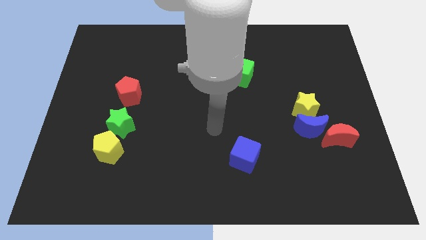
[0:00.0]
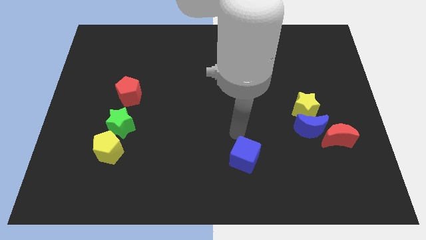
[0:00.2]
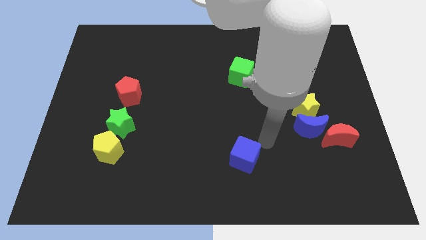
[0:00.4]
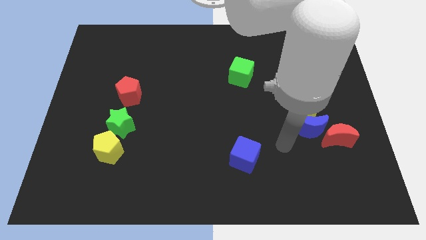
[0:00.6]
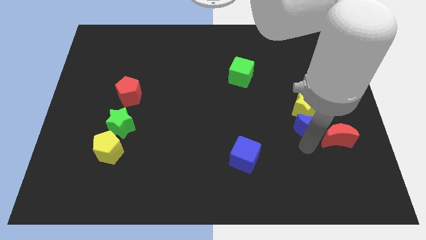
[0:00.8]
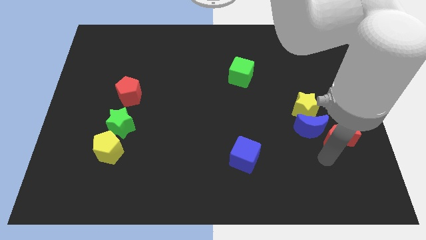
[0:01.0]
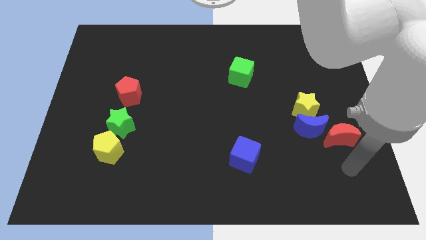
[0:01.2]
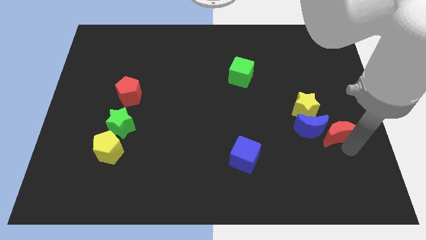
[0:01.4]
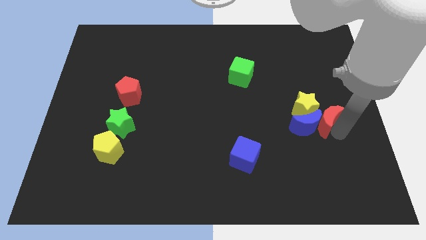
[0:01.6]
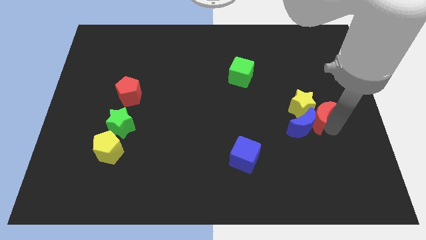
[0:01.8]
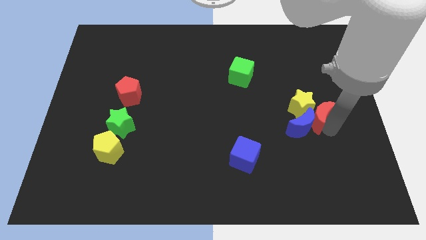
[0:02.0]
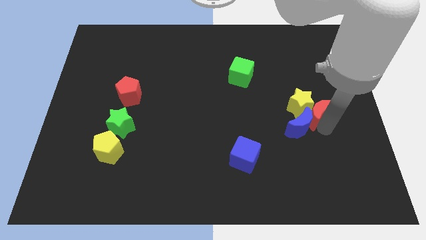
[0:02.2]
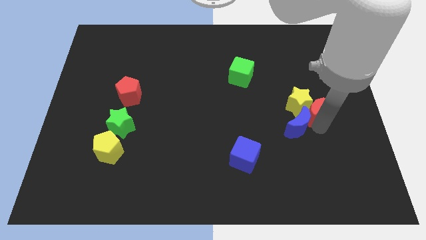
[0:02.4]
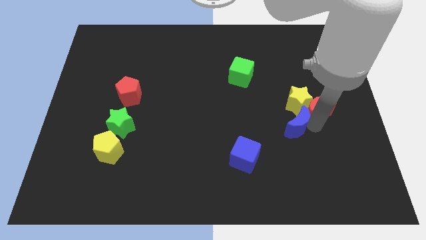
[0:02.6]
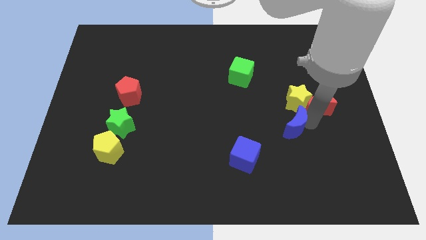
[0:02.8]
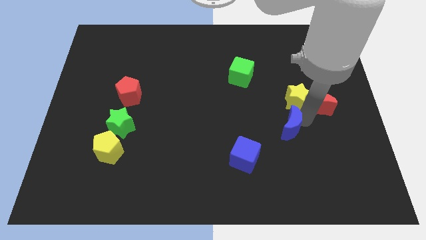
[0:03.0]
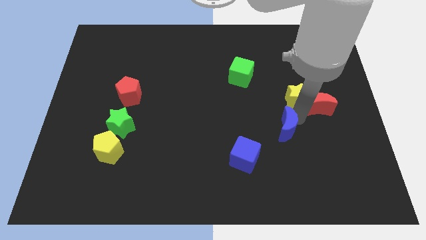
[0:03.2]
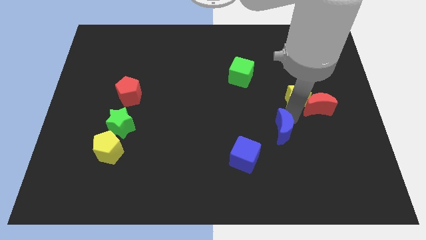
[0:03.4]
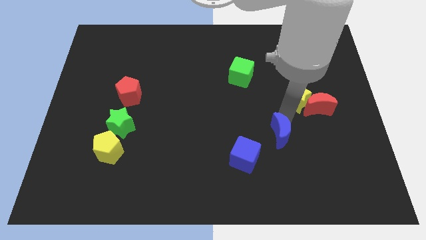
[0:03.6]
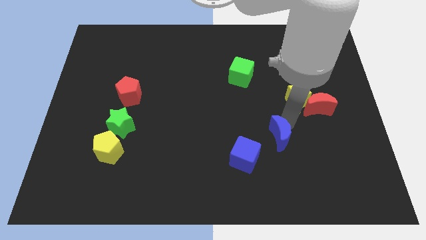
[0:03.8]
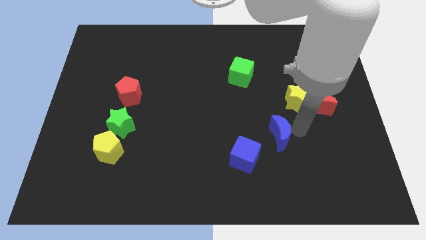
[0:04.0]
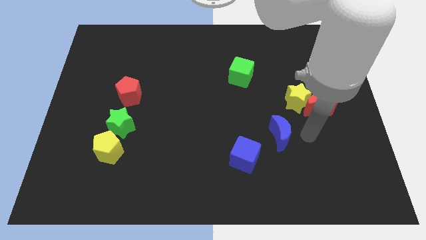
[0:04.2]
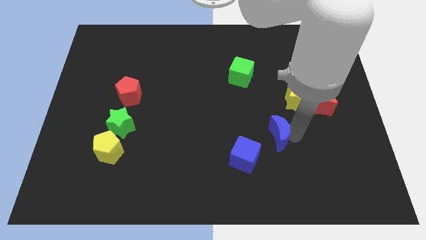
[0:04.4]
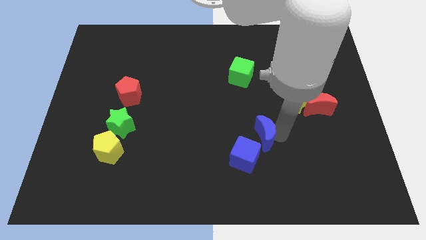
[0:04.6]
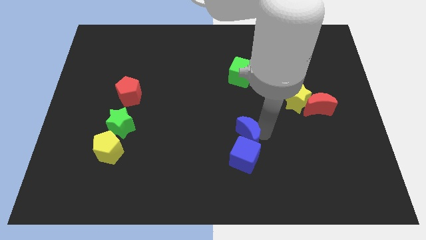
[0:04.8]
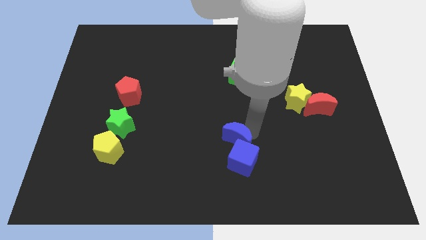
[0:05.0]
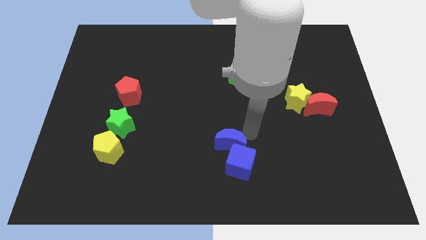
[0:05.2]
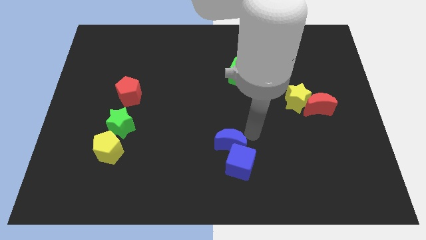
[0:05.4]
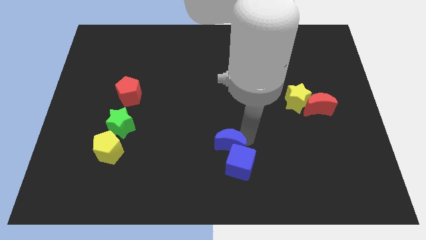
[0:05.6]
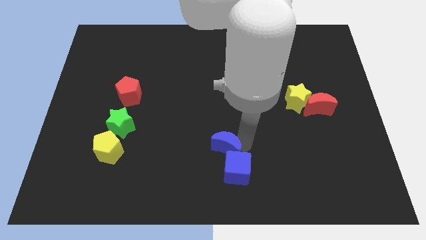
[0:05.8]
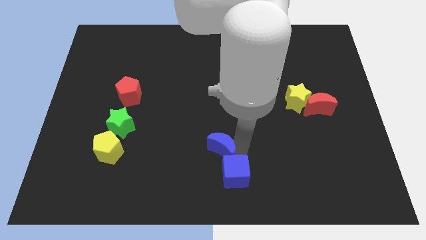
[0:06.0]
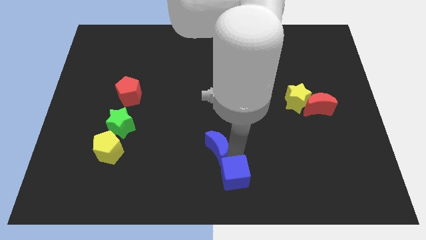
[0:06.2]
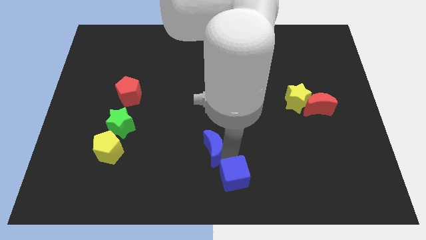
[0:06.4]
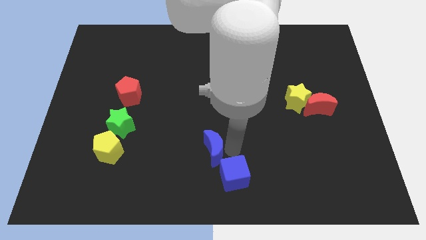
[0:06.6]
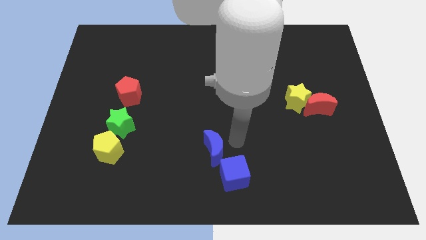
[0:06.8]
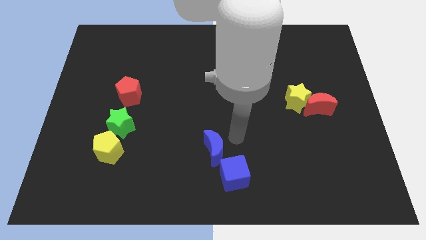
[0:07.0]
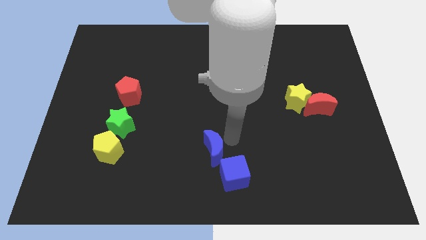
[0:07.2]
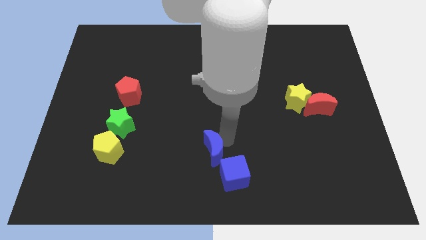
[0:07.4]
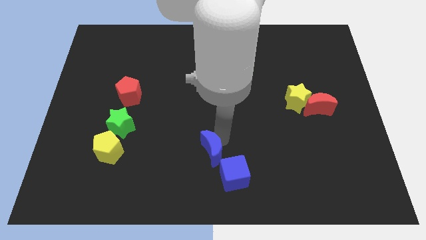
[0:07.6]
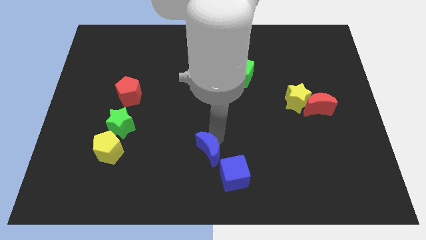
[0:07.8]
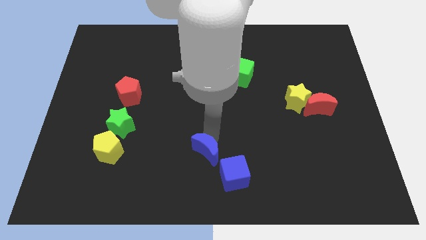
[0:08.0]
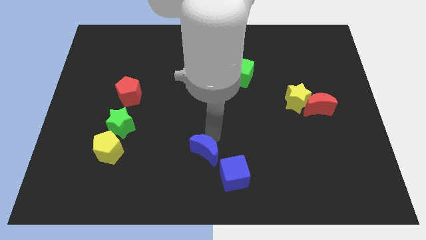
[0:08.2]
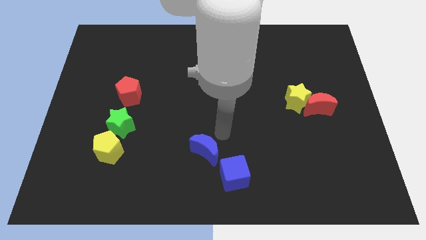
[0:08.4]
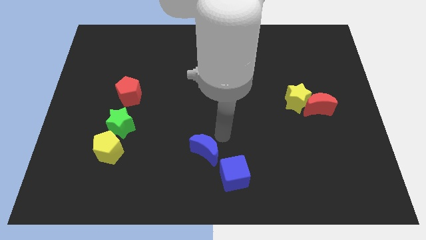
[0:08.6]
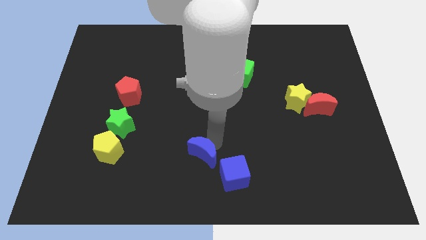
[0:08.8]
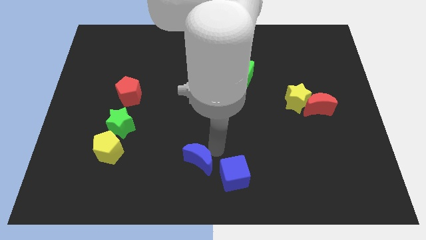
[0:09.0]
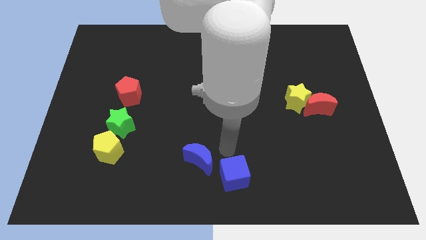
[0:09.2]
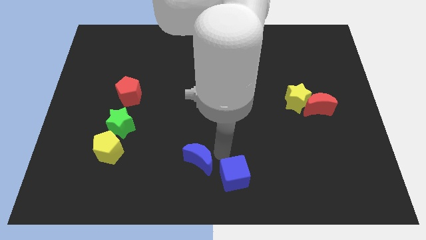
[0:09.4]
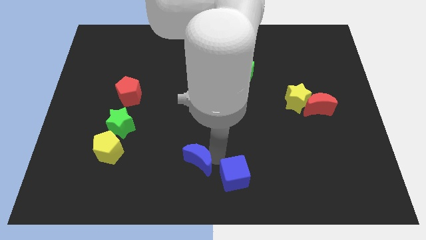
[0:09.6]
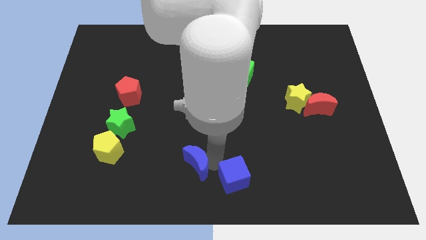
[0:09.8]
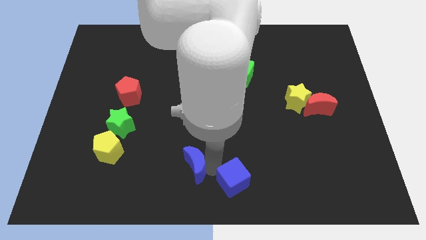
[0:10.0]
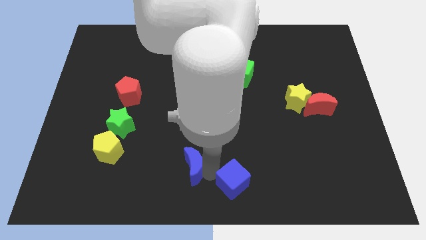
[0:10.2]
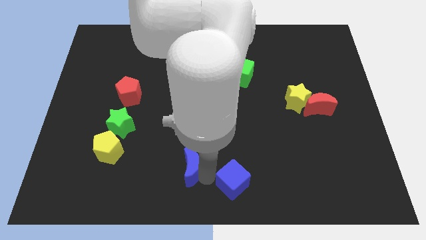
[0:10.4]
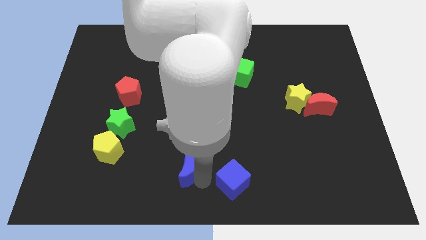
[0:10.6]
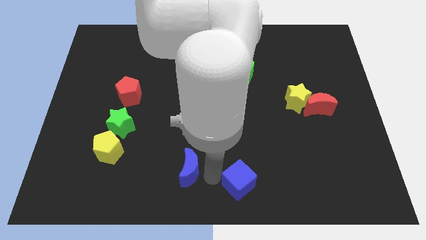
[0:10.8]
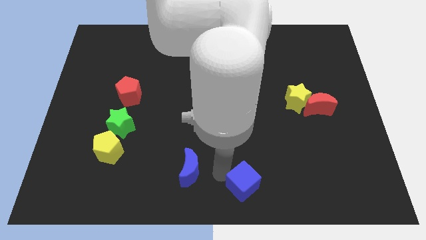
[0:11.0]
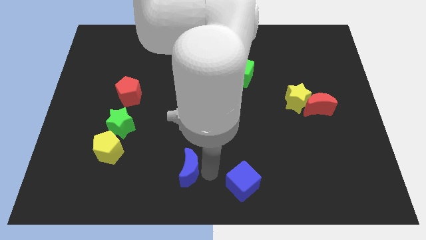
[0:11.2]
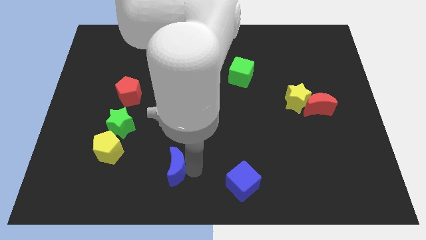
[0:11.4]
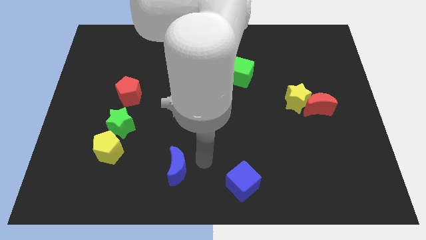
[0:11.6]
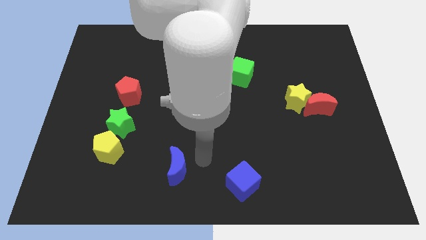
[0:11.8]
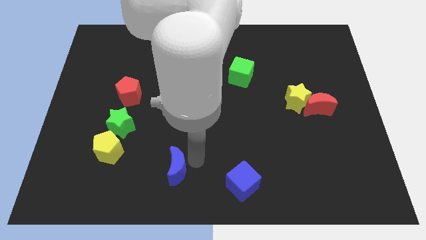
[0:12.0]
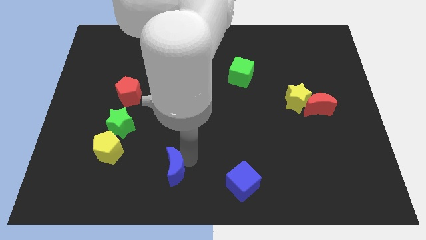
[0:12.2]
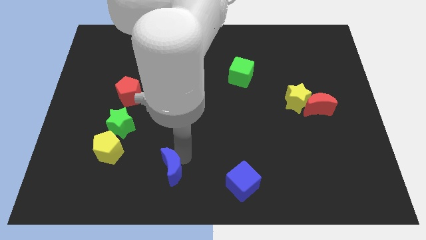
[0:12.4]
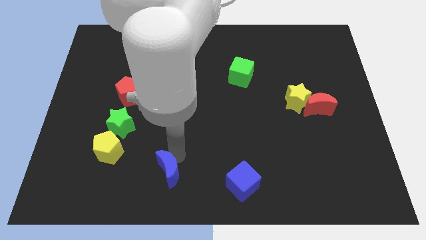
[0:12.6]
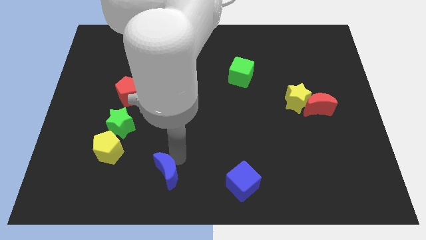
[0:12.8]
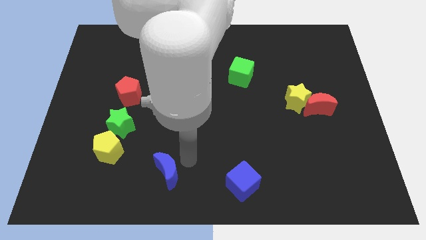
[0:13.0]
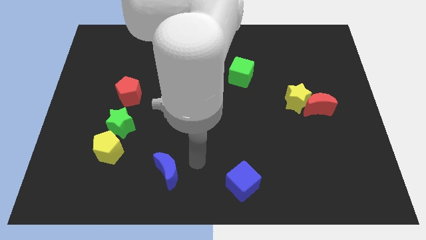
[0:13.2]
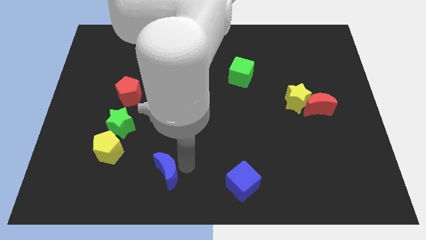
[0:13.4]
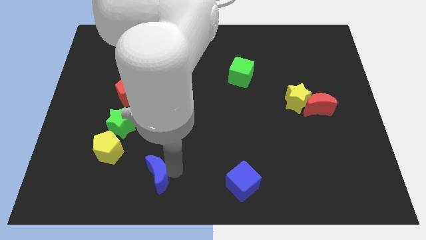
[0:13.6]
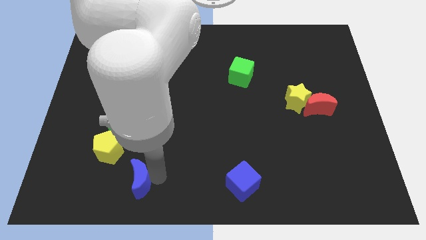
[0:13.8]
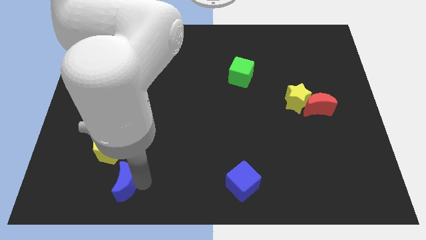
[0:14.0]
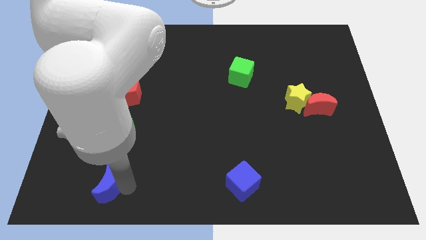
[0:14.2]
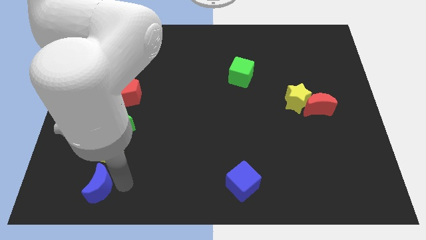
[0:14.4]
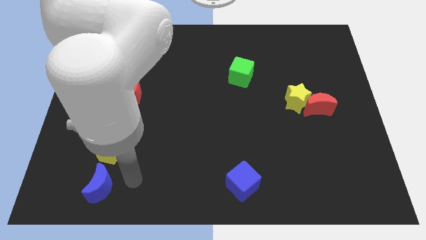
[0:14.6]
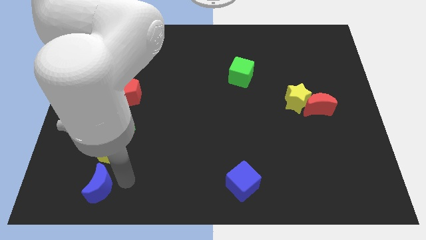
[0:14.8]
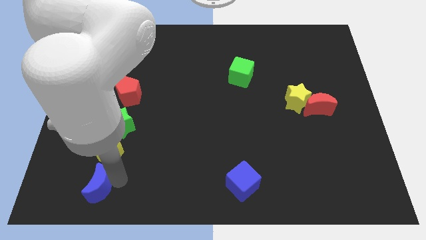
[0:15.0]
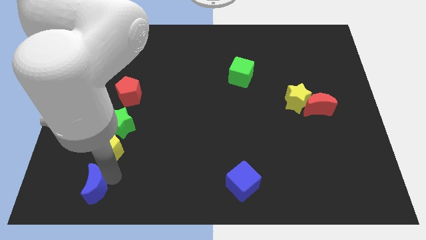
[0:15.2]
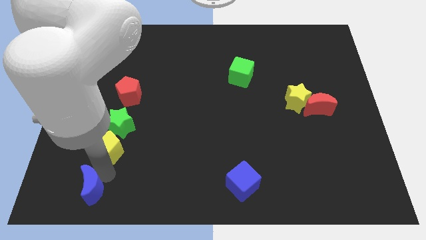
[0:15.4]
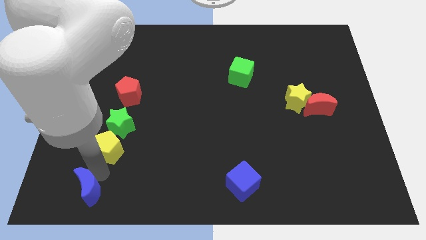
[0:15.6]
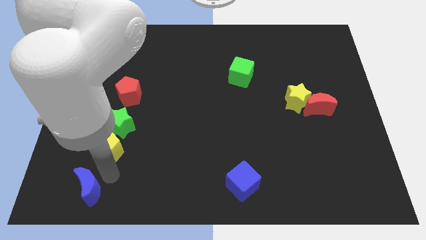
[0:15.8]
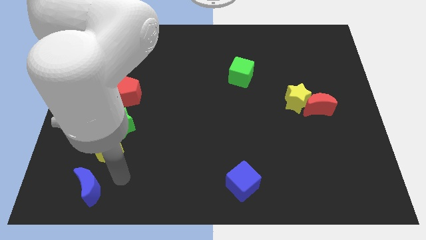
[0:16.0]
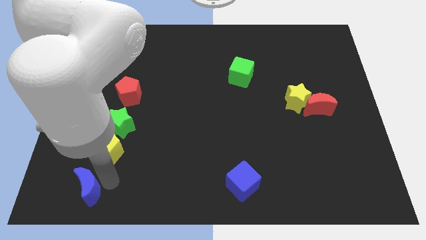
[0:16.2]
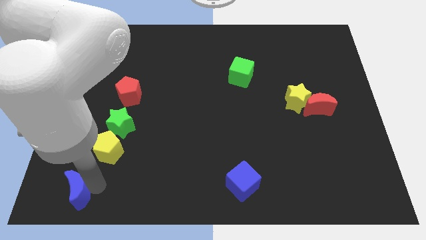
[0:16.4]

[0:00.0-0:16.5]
put the blue moon to the bottom left

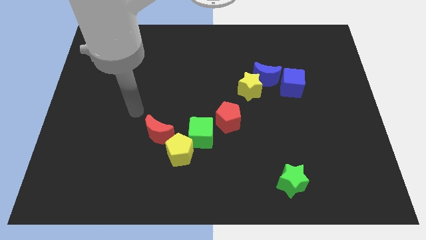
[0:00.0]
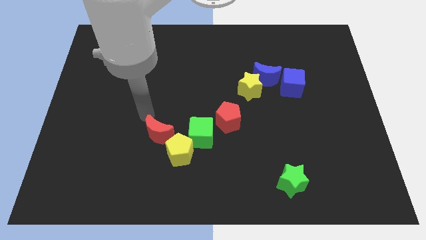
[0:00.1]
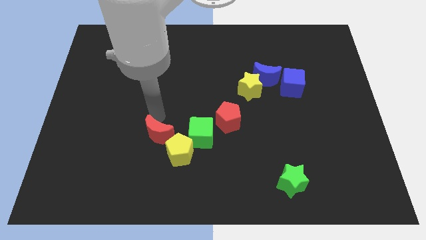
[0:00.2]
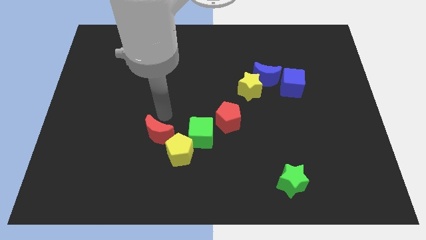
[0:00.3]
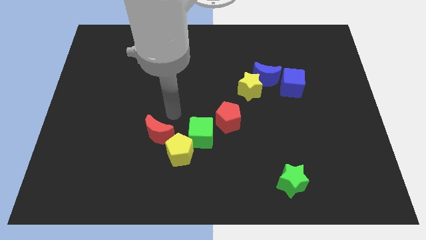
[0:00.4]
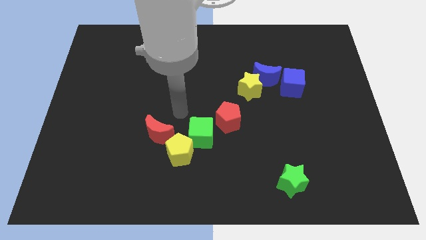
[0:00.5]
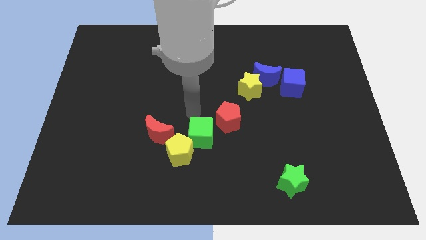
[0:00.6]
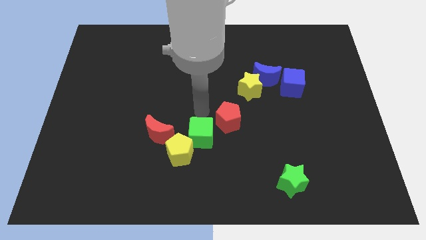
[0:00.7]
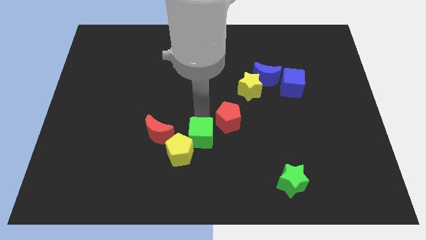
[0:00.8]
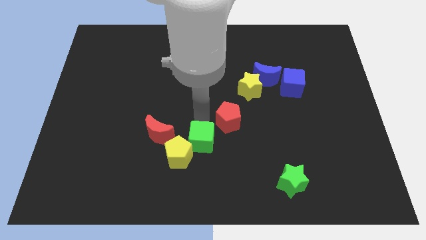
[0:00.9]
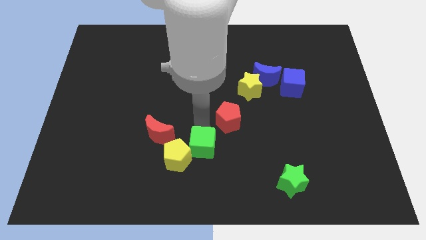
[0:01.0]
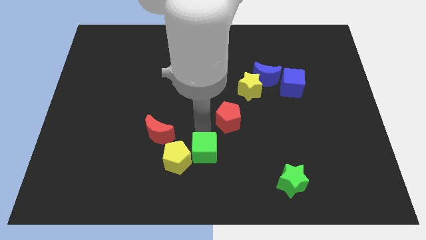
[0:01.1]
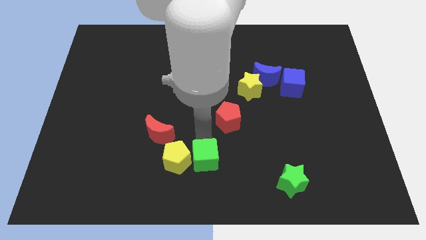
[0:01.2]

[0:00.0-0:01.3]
slide the green cube to the bottom side
